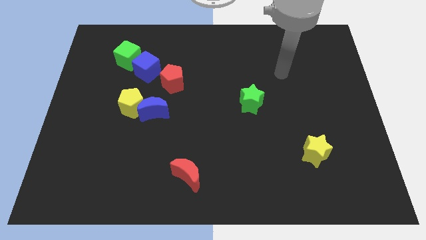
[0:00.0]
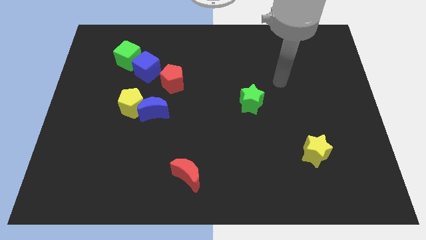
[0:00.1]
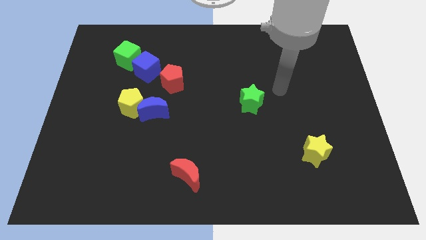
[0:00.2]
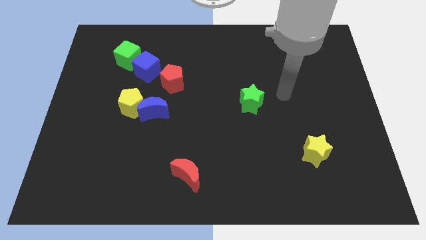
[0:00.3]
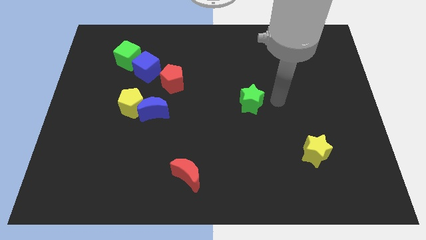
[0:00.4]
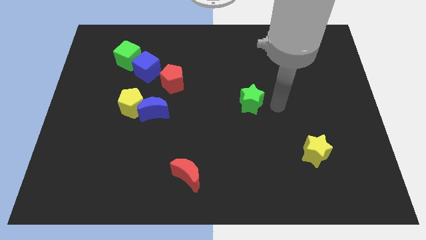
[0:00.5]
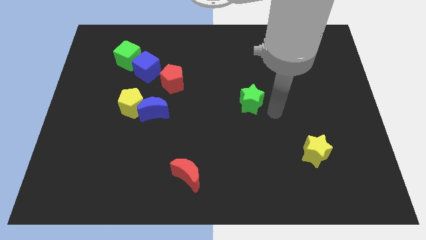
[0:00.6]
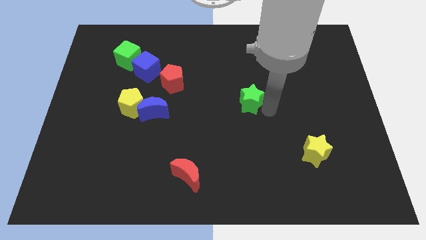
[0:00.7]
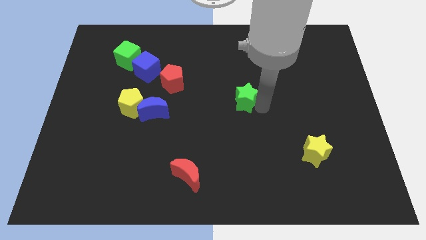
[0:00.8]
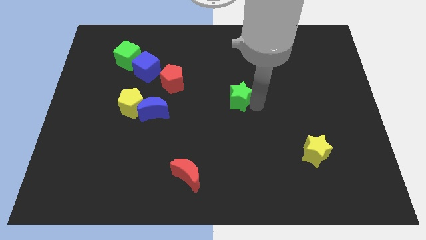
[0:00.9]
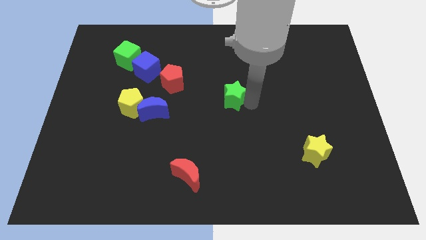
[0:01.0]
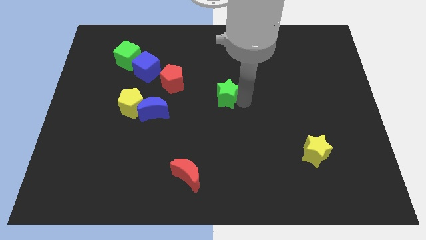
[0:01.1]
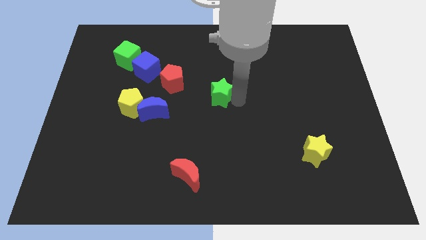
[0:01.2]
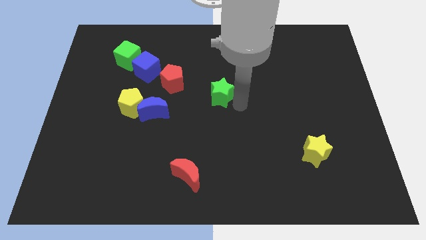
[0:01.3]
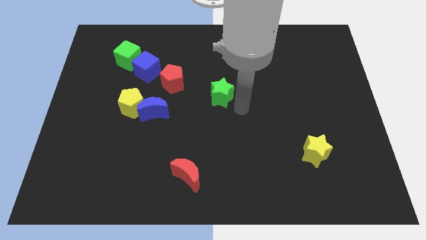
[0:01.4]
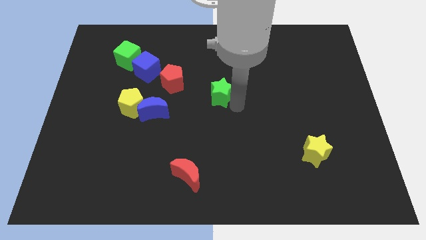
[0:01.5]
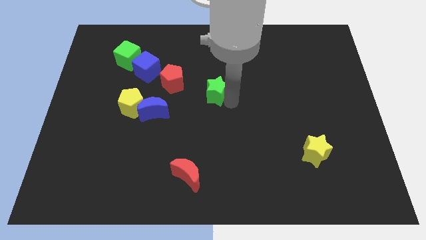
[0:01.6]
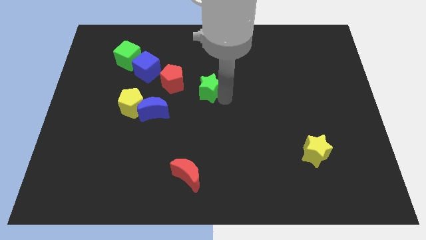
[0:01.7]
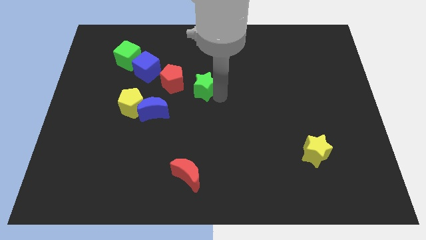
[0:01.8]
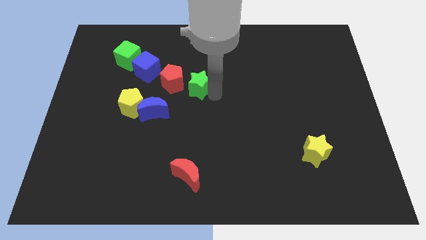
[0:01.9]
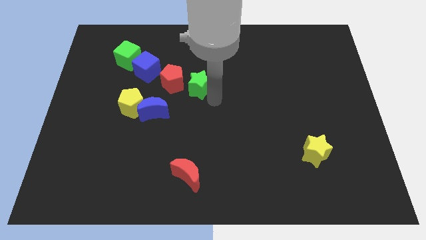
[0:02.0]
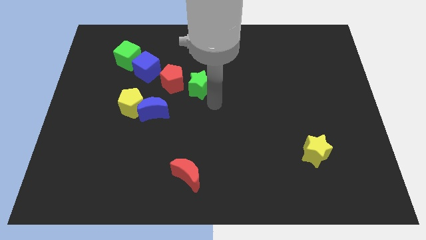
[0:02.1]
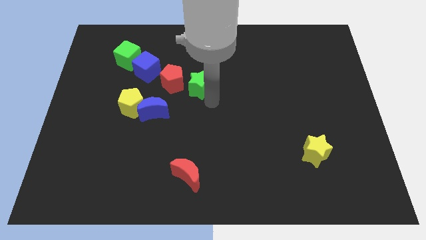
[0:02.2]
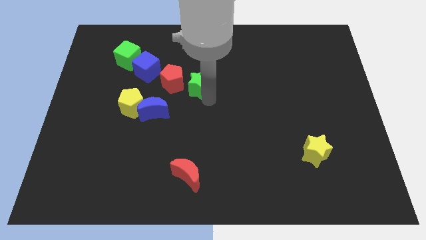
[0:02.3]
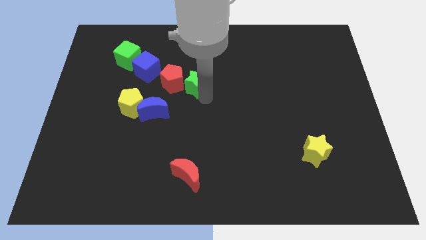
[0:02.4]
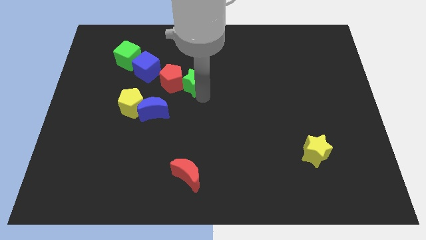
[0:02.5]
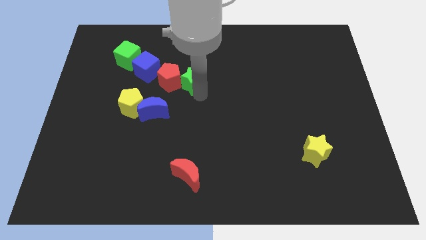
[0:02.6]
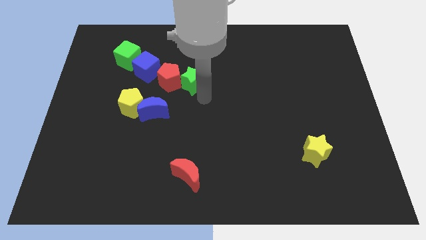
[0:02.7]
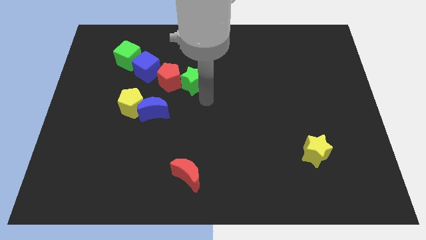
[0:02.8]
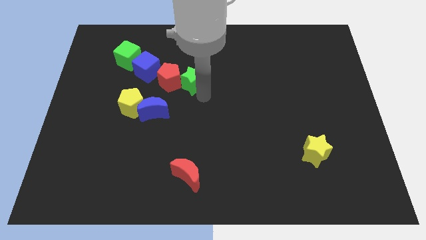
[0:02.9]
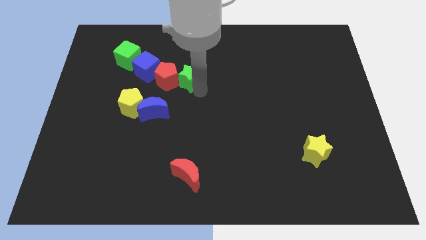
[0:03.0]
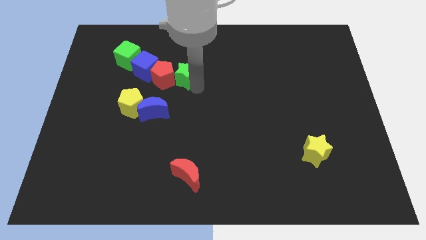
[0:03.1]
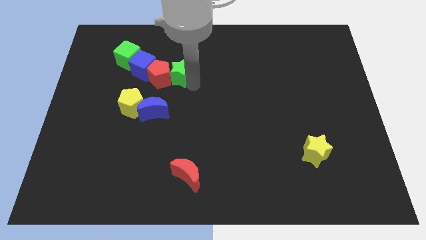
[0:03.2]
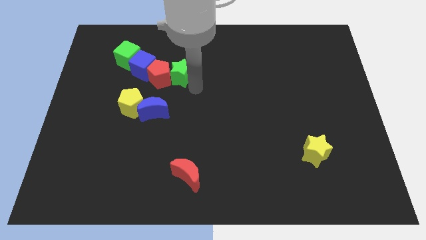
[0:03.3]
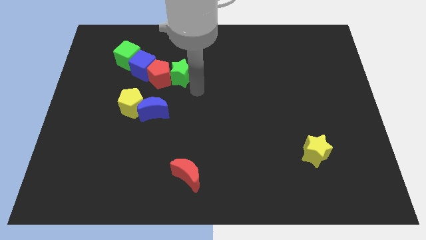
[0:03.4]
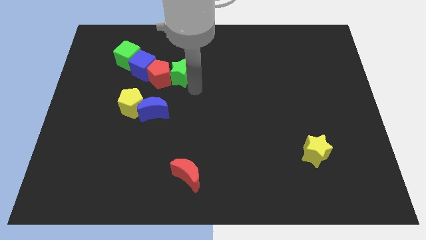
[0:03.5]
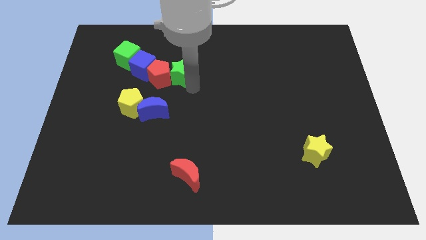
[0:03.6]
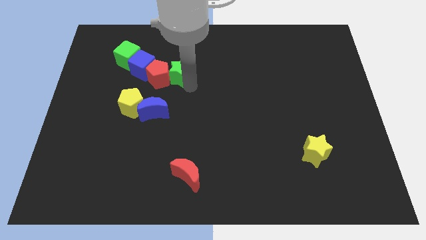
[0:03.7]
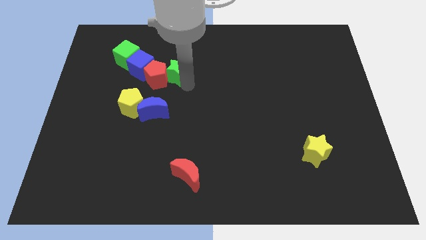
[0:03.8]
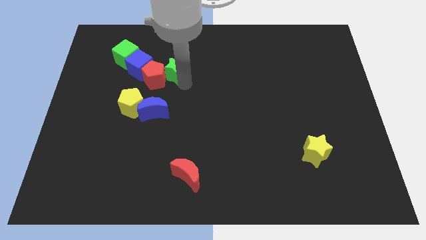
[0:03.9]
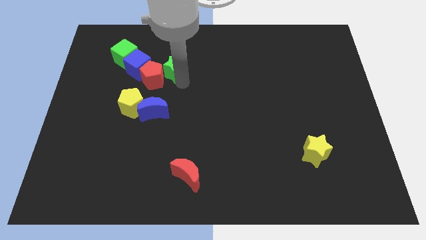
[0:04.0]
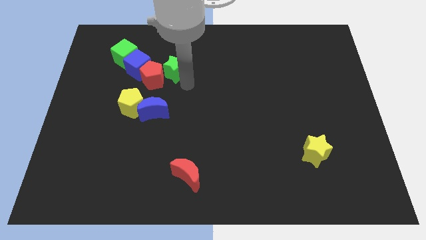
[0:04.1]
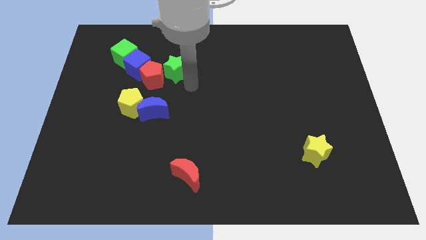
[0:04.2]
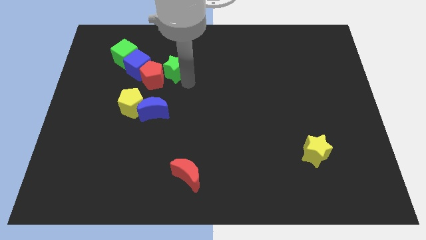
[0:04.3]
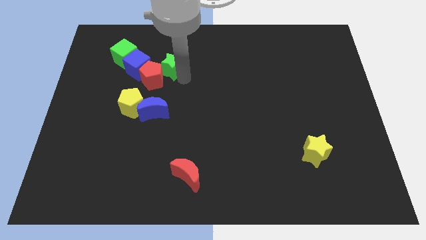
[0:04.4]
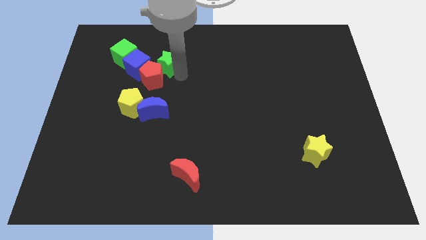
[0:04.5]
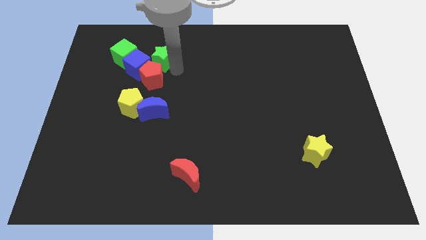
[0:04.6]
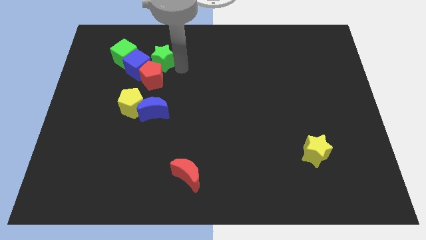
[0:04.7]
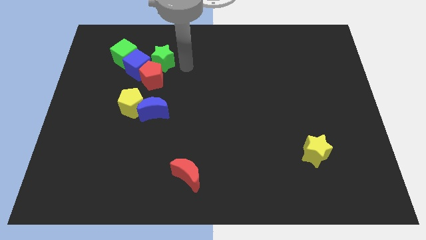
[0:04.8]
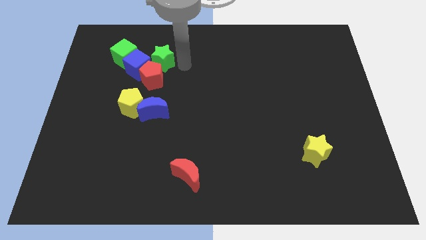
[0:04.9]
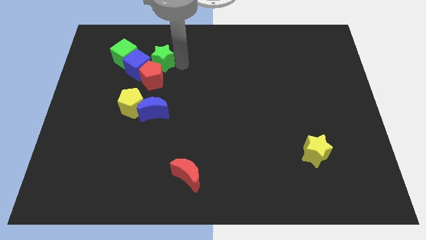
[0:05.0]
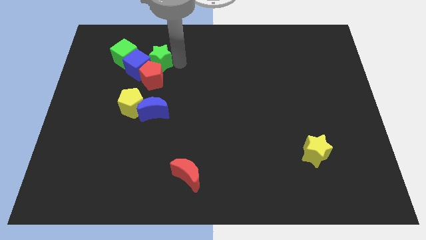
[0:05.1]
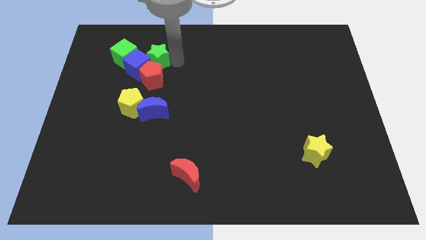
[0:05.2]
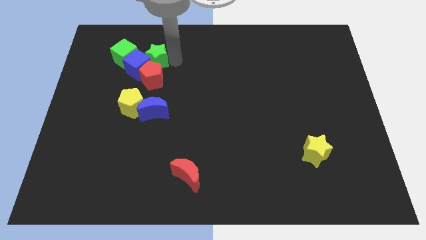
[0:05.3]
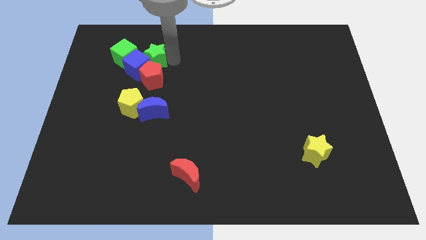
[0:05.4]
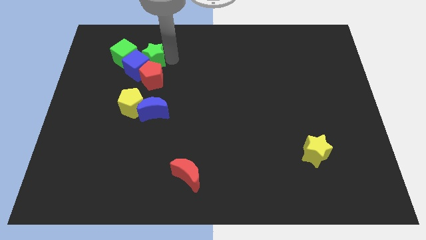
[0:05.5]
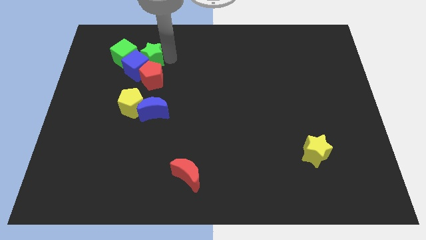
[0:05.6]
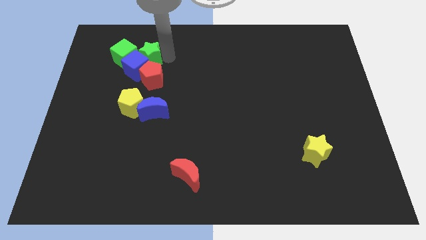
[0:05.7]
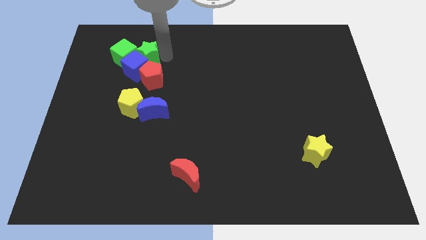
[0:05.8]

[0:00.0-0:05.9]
slide the green star close to the green cube

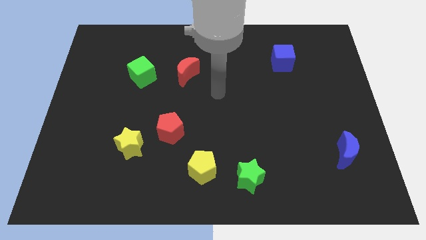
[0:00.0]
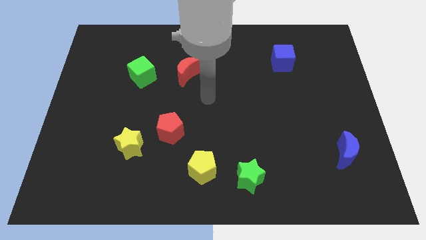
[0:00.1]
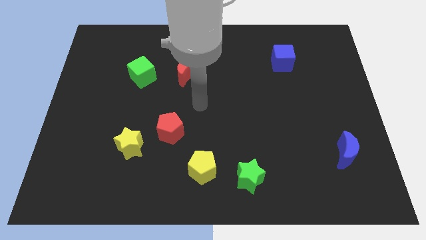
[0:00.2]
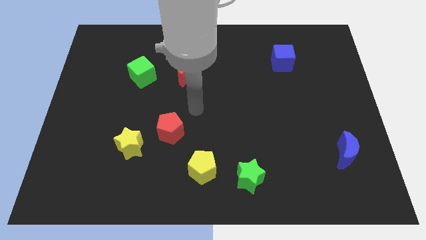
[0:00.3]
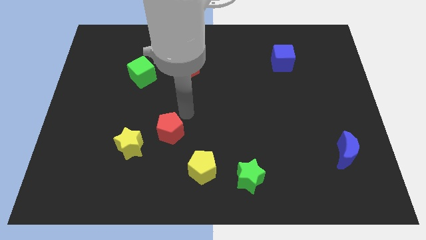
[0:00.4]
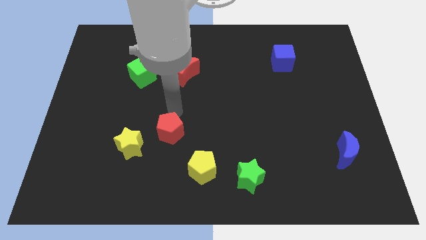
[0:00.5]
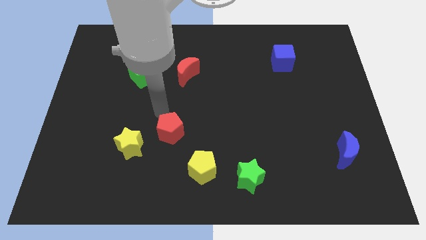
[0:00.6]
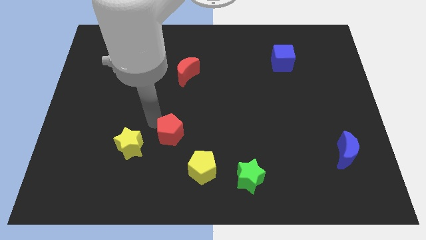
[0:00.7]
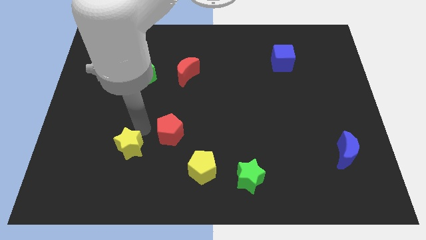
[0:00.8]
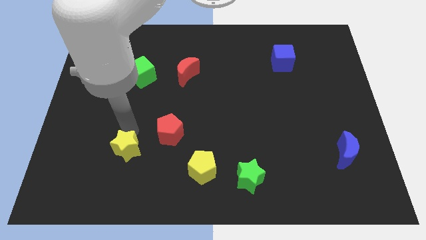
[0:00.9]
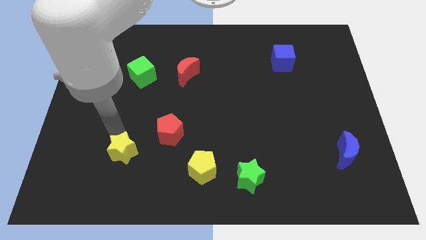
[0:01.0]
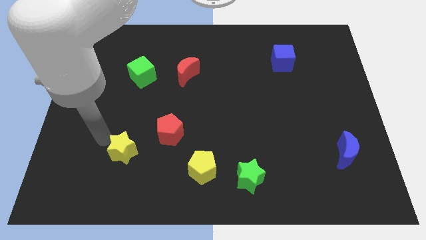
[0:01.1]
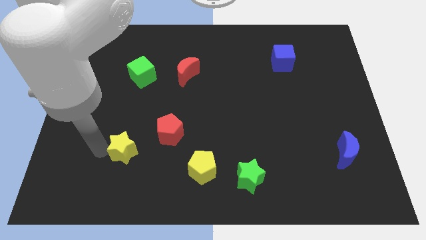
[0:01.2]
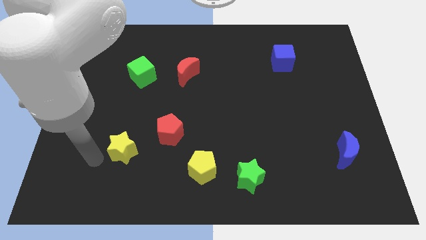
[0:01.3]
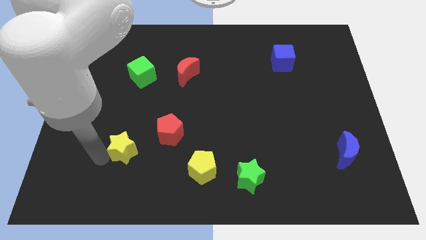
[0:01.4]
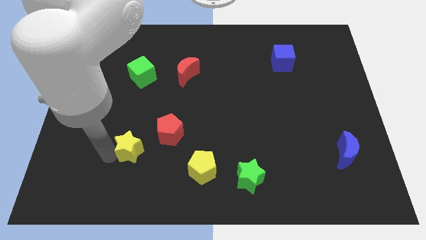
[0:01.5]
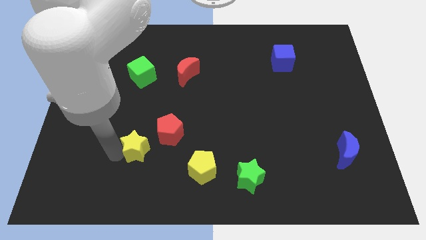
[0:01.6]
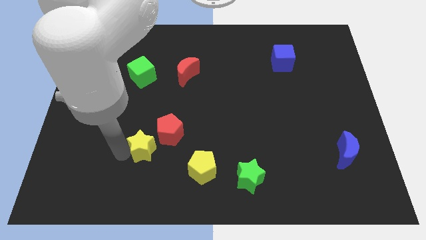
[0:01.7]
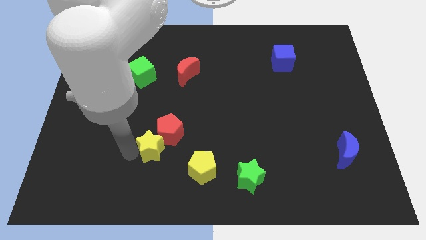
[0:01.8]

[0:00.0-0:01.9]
slide the yellow star close to the red pentagon
